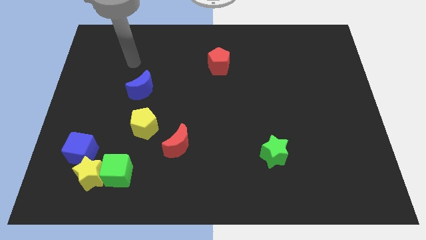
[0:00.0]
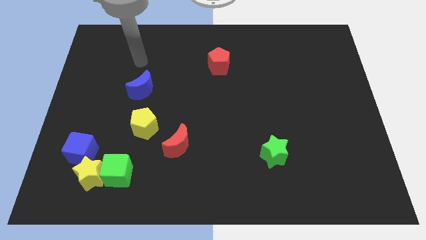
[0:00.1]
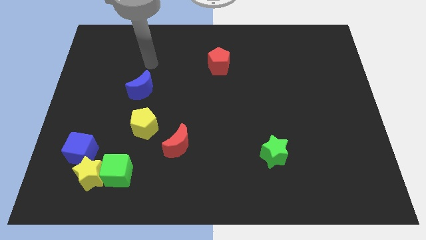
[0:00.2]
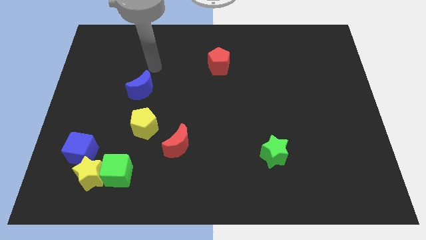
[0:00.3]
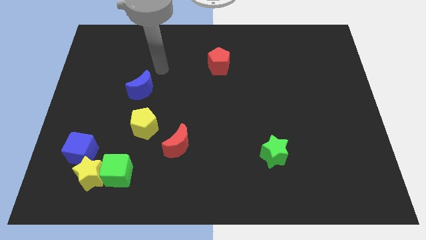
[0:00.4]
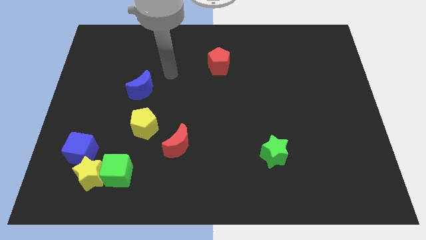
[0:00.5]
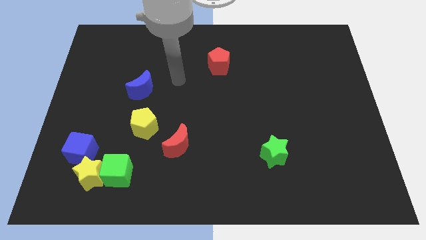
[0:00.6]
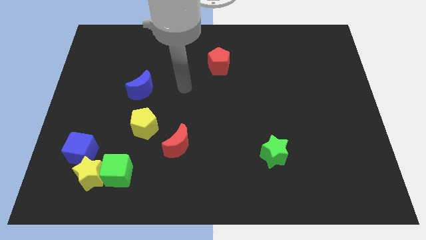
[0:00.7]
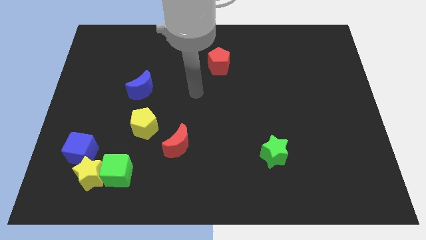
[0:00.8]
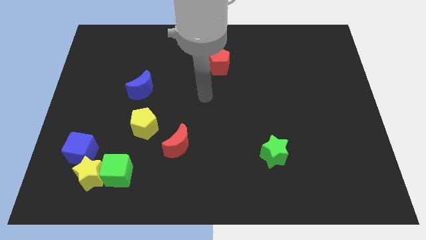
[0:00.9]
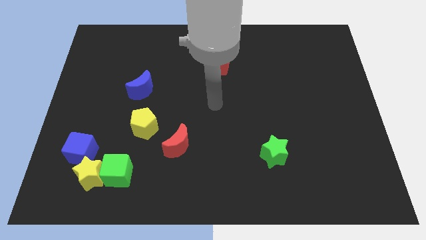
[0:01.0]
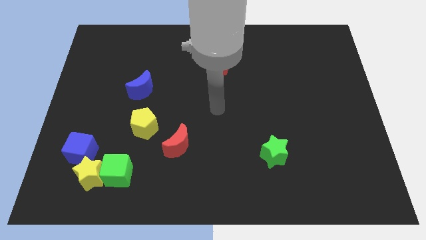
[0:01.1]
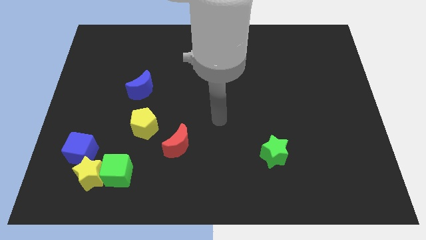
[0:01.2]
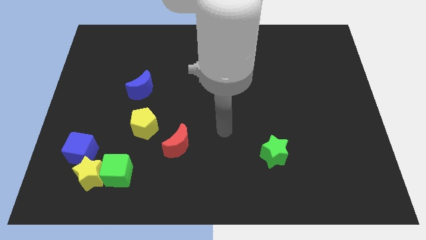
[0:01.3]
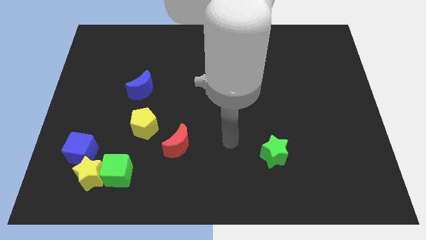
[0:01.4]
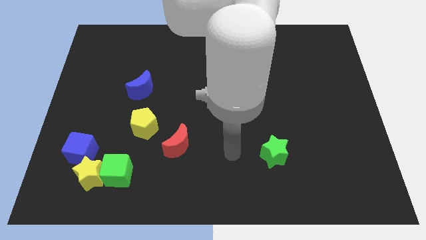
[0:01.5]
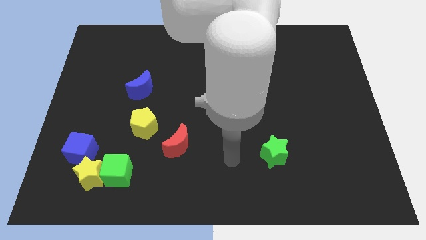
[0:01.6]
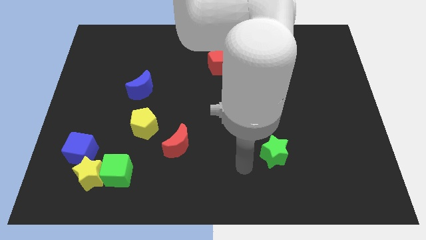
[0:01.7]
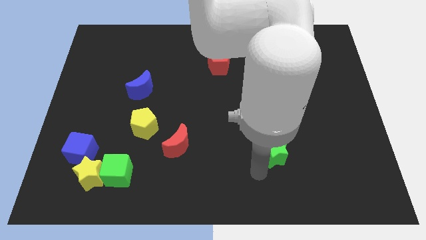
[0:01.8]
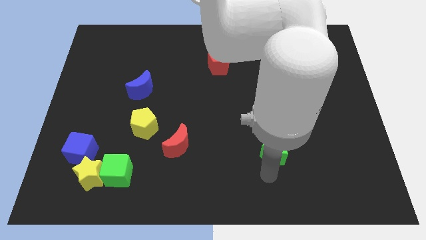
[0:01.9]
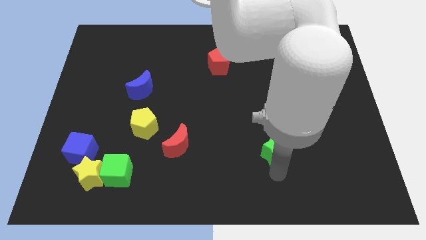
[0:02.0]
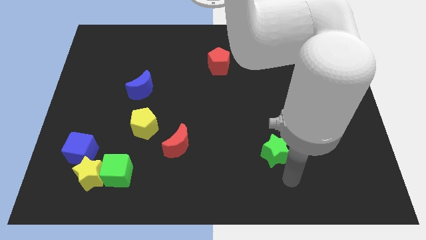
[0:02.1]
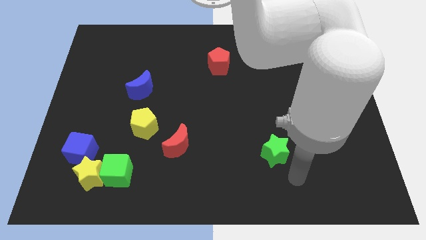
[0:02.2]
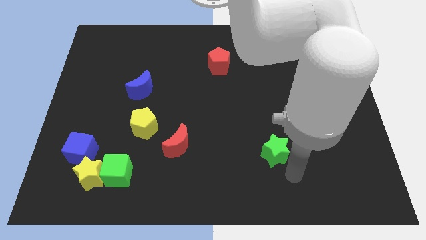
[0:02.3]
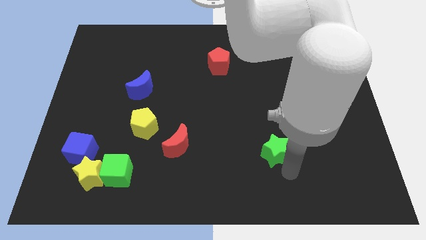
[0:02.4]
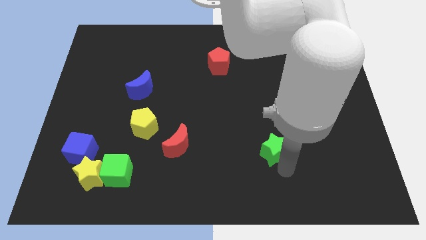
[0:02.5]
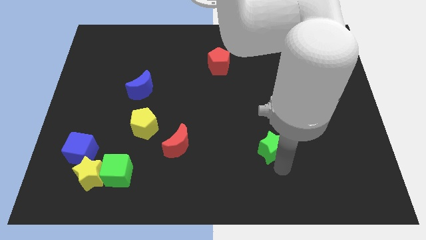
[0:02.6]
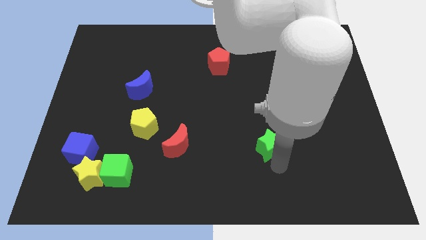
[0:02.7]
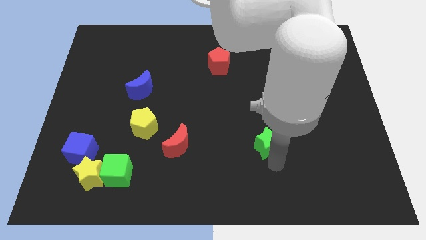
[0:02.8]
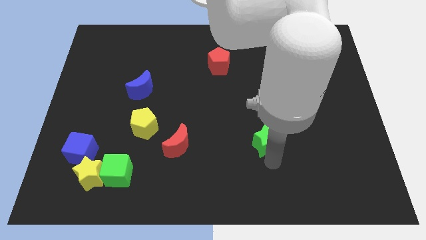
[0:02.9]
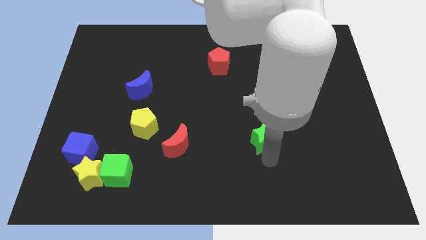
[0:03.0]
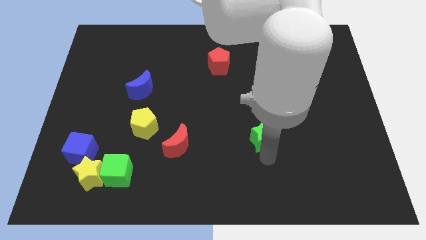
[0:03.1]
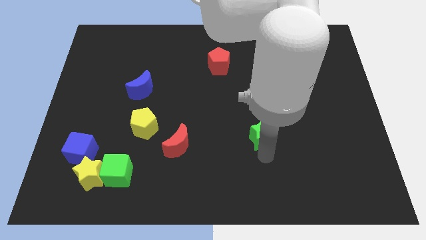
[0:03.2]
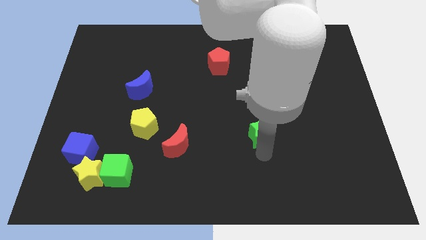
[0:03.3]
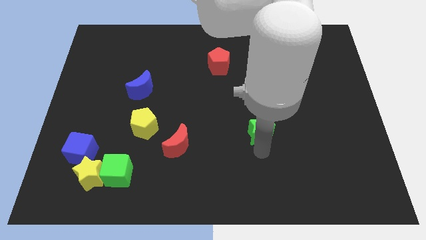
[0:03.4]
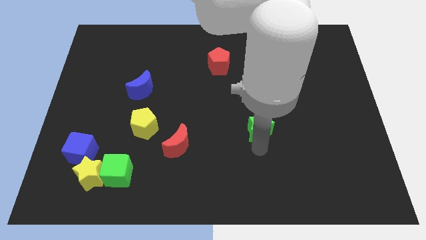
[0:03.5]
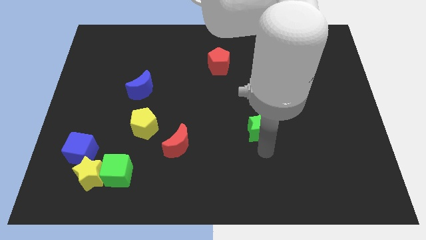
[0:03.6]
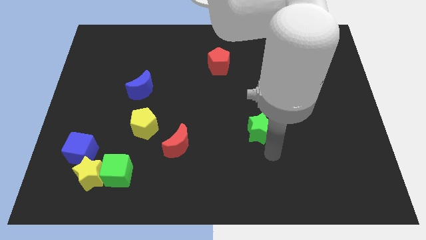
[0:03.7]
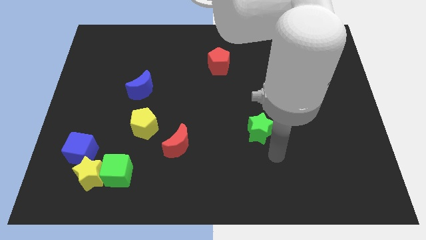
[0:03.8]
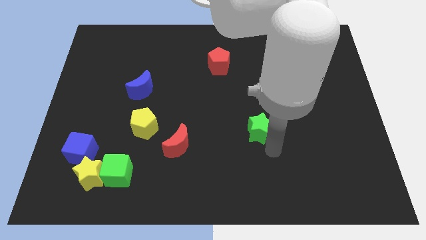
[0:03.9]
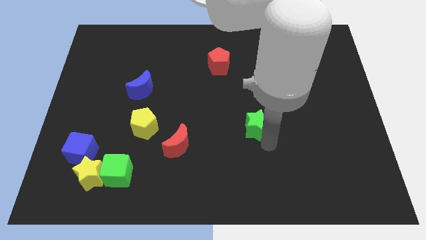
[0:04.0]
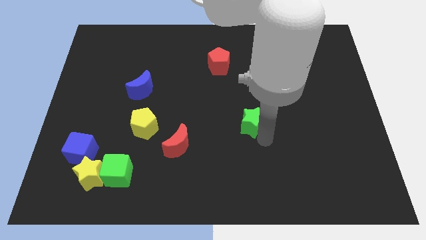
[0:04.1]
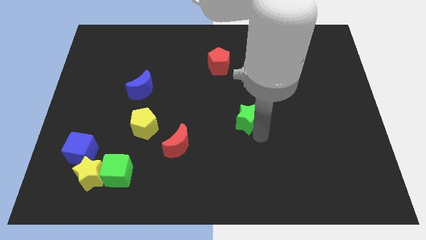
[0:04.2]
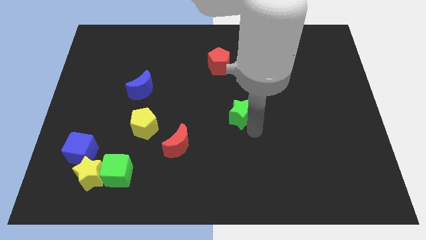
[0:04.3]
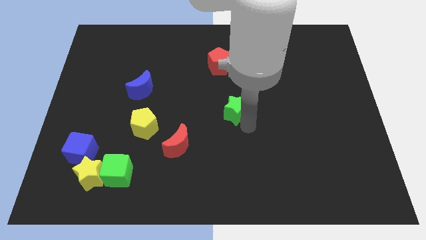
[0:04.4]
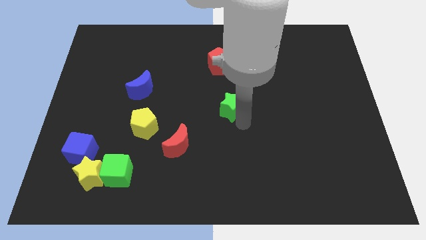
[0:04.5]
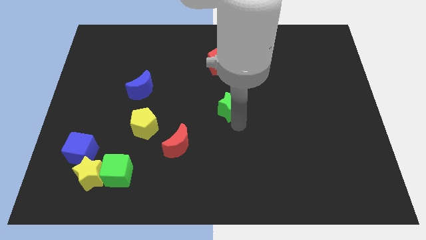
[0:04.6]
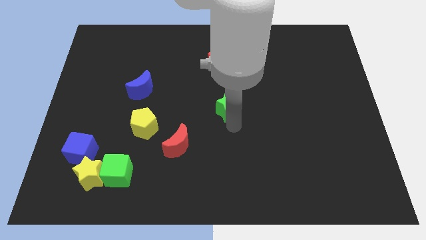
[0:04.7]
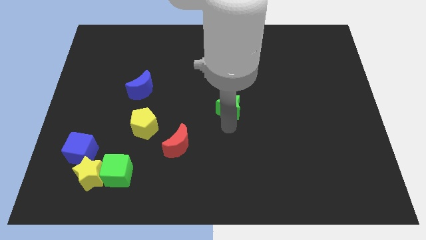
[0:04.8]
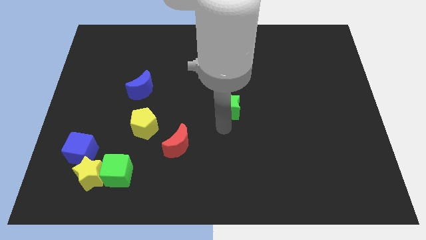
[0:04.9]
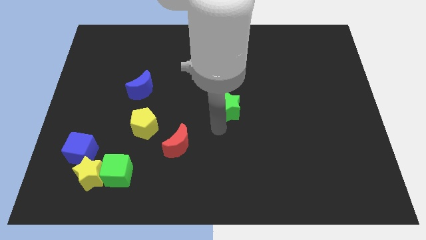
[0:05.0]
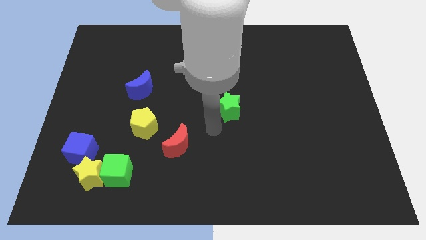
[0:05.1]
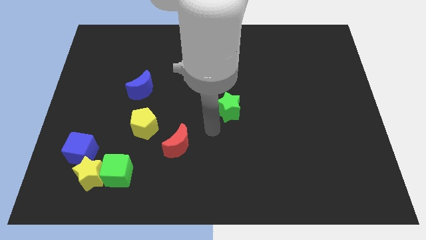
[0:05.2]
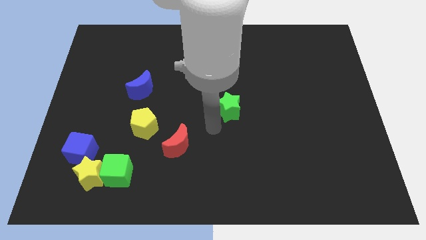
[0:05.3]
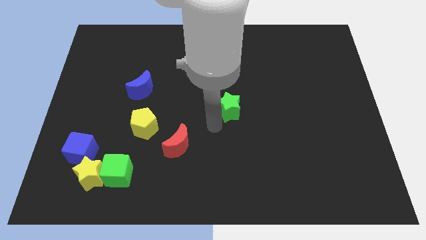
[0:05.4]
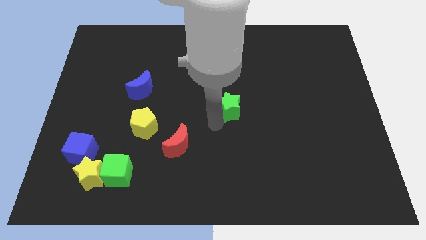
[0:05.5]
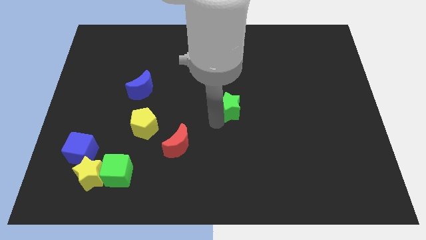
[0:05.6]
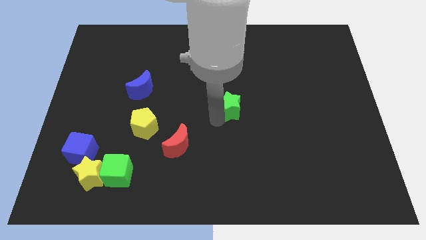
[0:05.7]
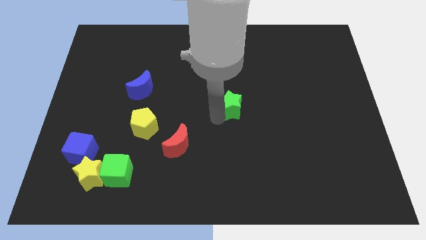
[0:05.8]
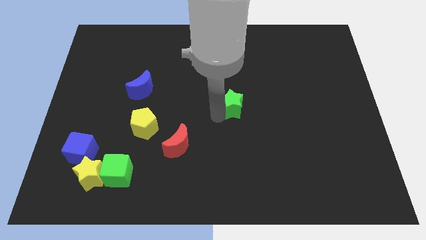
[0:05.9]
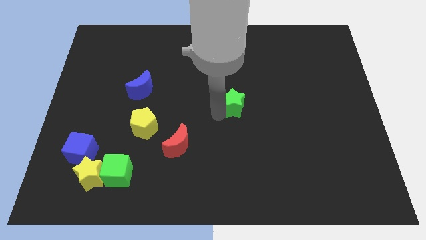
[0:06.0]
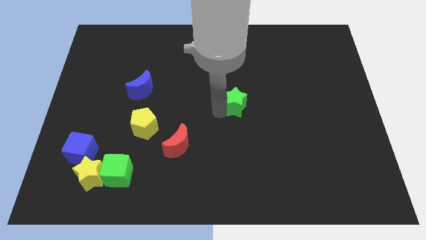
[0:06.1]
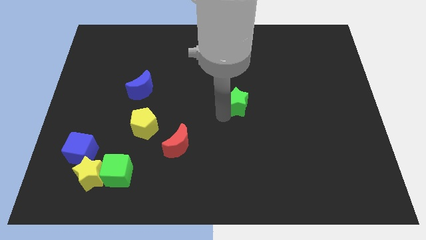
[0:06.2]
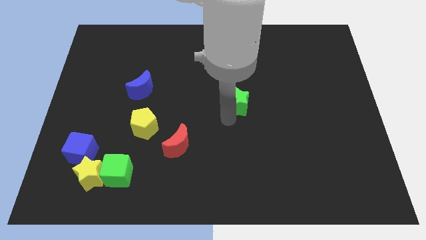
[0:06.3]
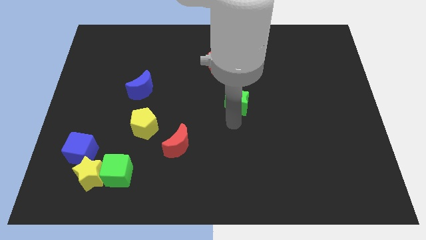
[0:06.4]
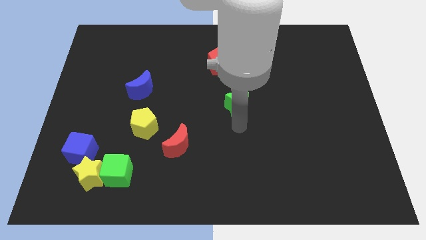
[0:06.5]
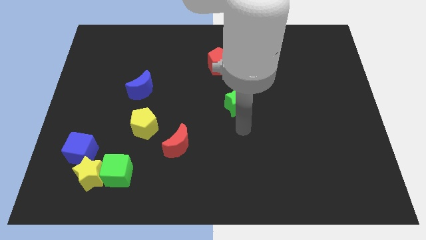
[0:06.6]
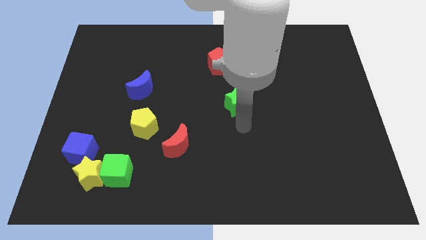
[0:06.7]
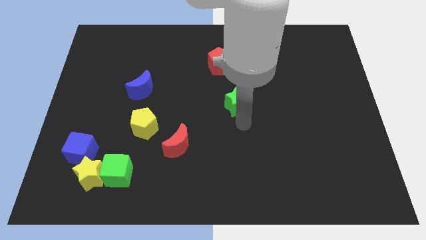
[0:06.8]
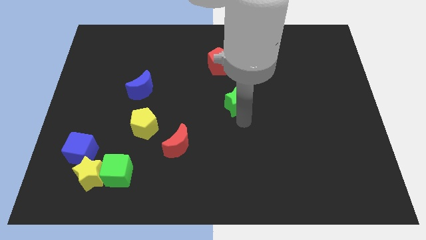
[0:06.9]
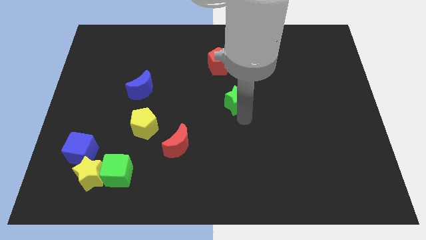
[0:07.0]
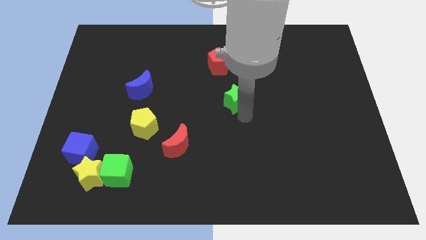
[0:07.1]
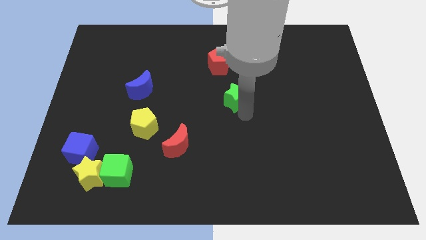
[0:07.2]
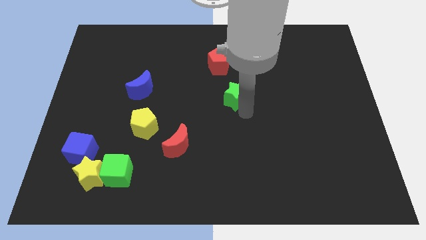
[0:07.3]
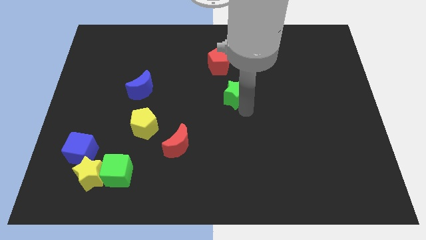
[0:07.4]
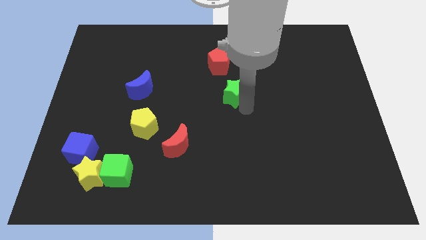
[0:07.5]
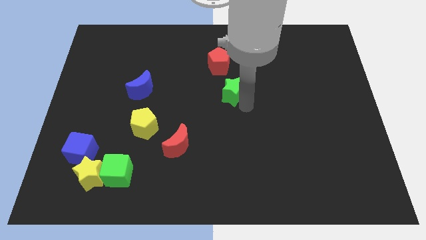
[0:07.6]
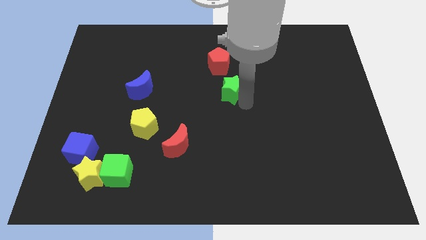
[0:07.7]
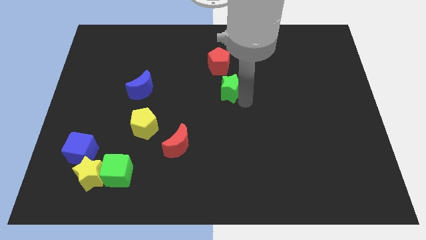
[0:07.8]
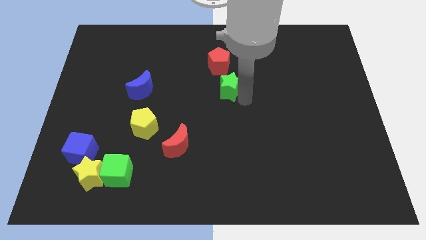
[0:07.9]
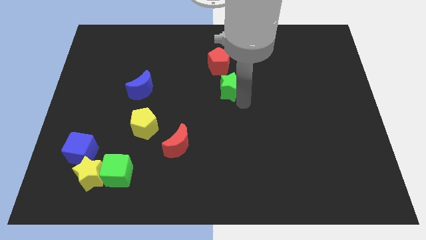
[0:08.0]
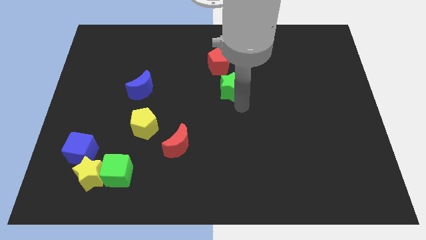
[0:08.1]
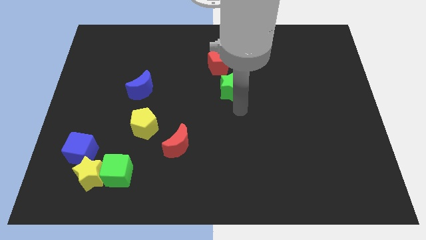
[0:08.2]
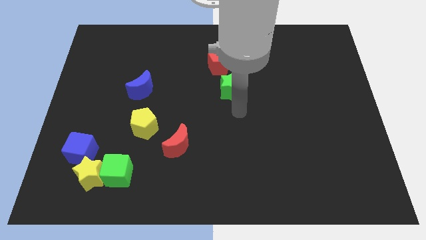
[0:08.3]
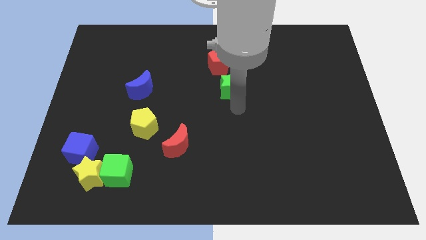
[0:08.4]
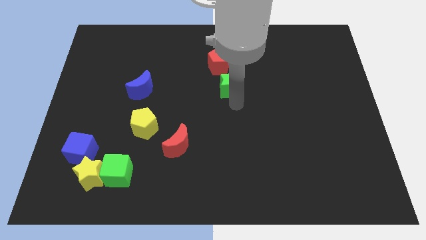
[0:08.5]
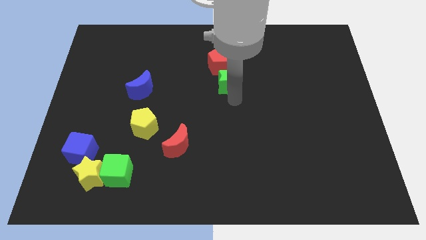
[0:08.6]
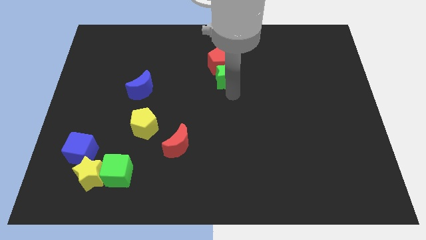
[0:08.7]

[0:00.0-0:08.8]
slide the green star towards the red pentagon
